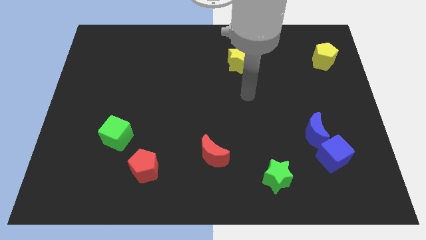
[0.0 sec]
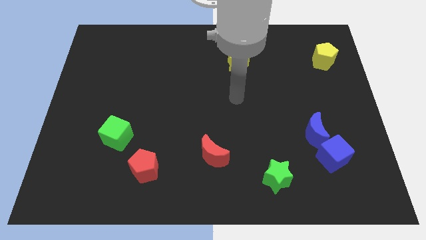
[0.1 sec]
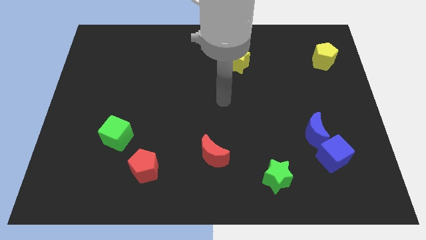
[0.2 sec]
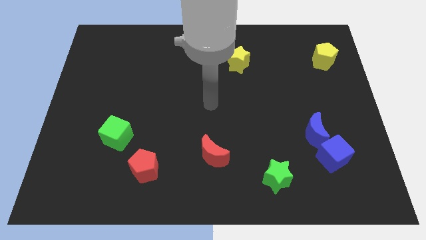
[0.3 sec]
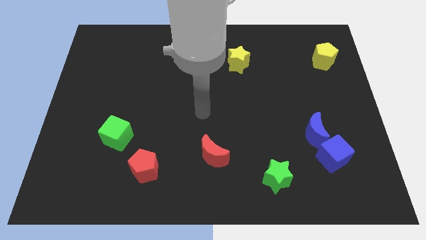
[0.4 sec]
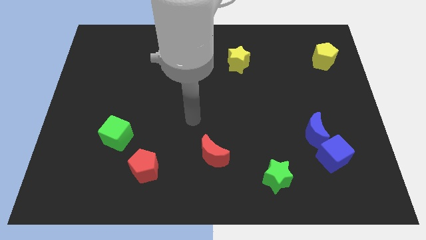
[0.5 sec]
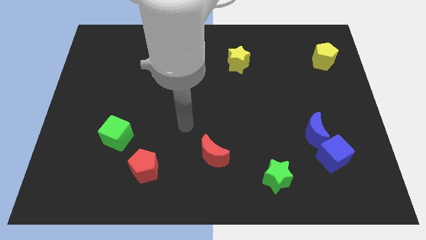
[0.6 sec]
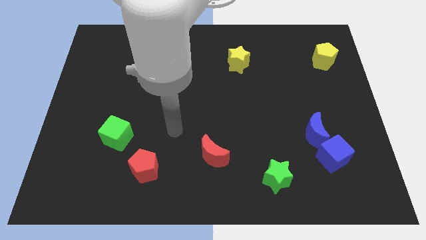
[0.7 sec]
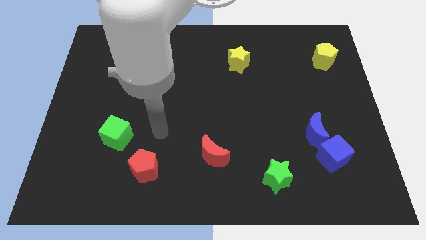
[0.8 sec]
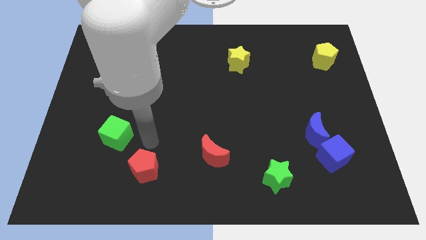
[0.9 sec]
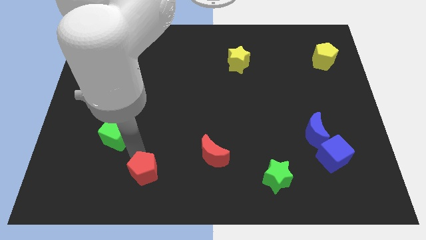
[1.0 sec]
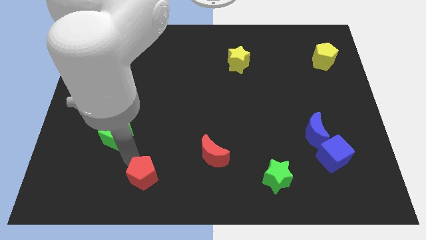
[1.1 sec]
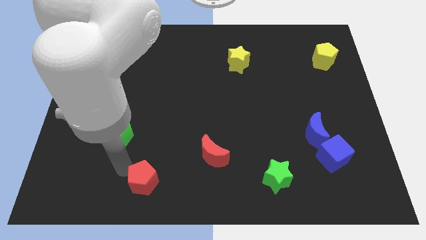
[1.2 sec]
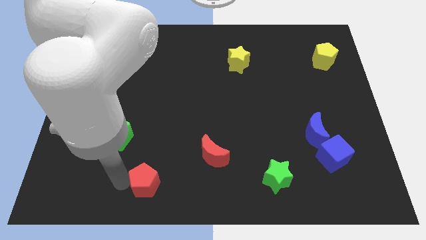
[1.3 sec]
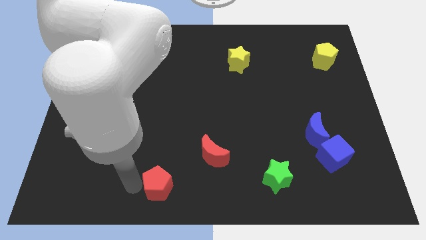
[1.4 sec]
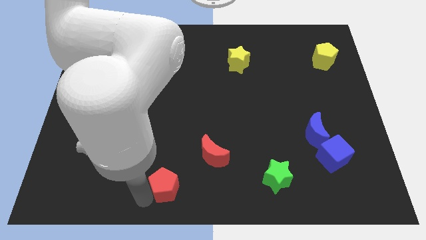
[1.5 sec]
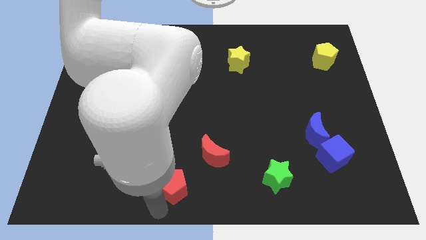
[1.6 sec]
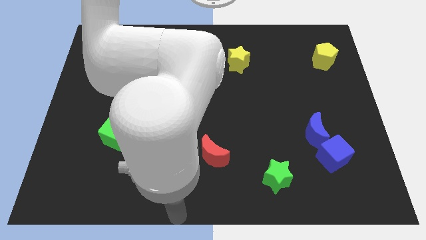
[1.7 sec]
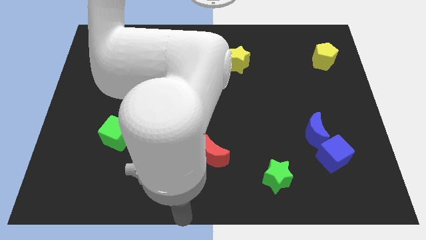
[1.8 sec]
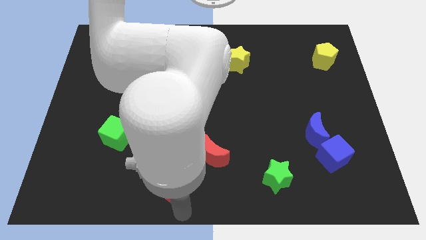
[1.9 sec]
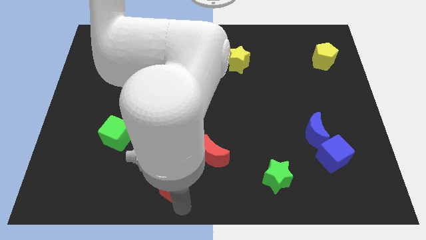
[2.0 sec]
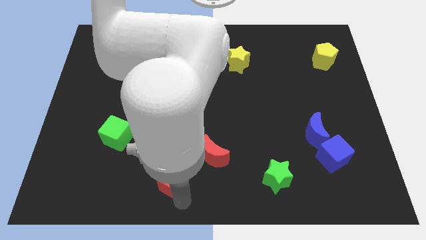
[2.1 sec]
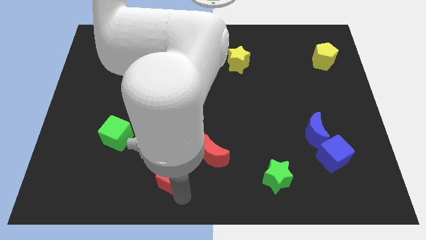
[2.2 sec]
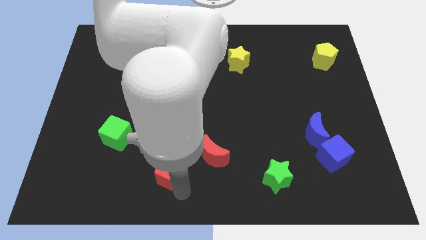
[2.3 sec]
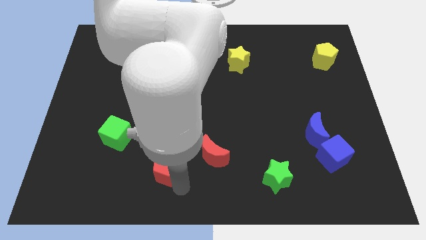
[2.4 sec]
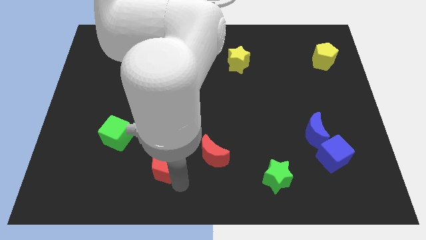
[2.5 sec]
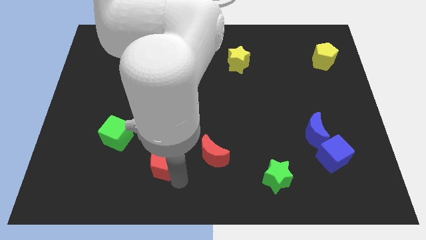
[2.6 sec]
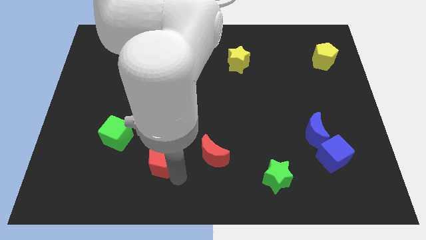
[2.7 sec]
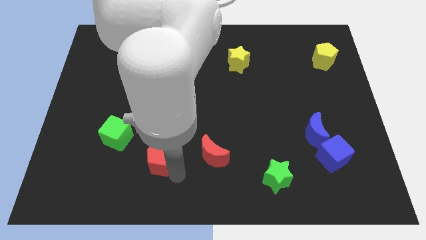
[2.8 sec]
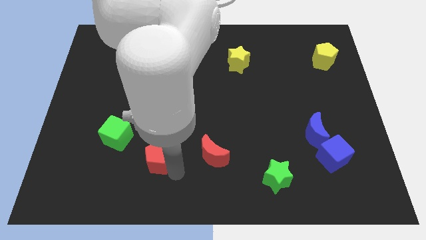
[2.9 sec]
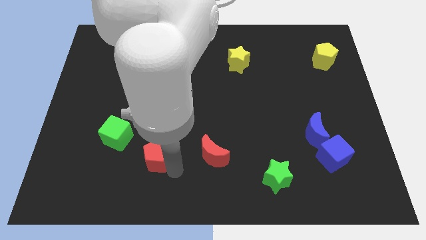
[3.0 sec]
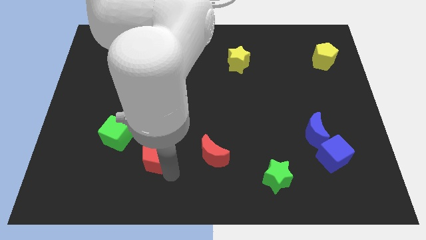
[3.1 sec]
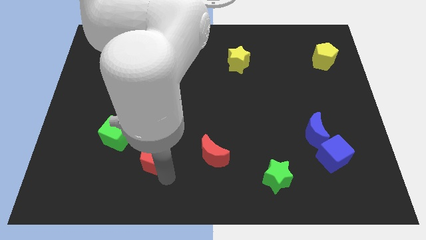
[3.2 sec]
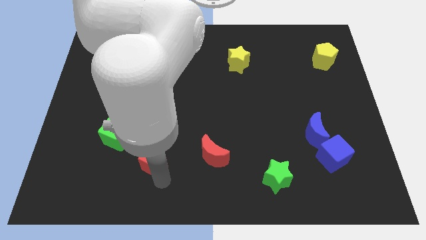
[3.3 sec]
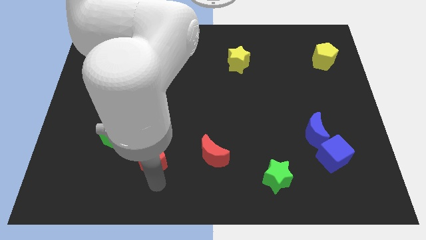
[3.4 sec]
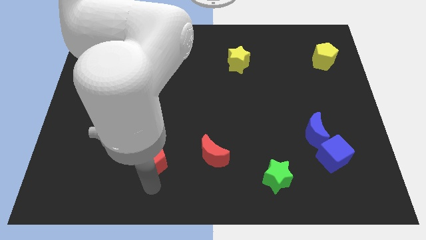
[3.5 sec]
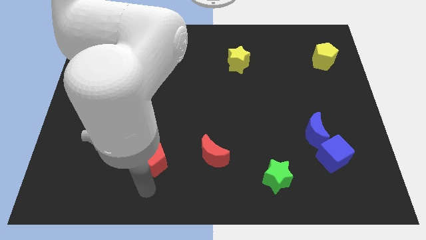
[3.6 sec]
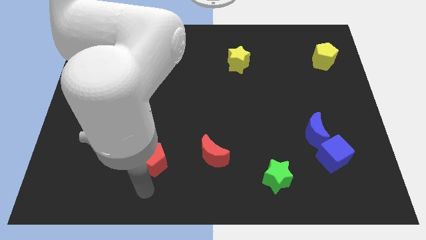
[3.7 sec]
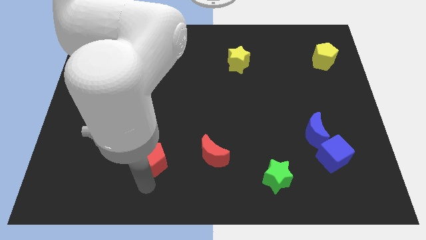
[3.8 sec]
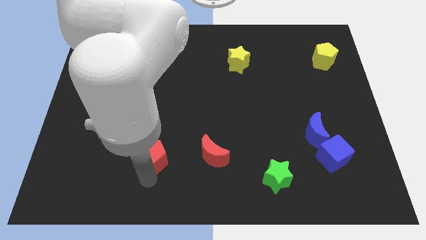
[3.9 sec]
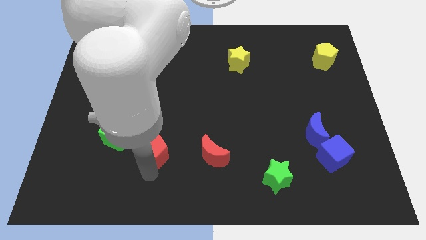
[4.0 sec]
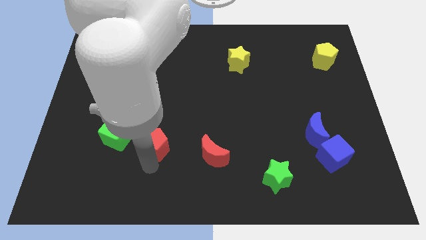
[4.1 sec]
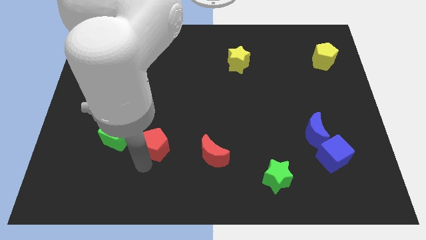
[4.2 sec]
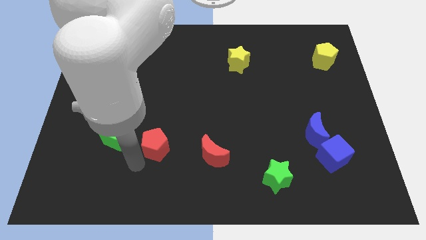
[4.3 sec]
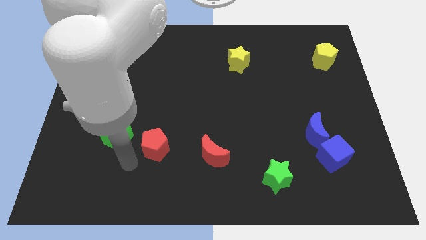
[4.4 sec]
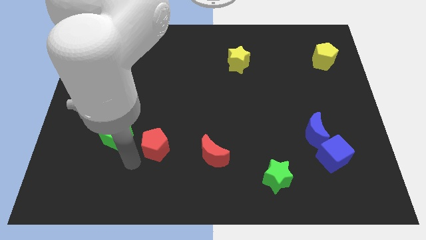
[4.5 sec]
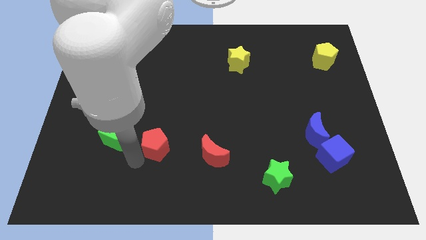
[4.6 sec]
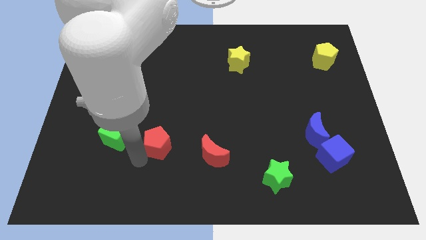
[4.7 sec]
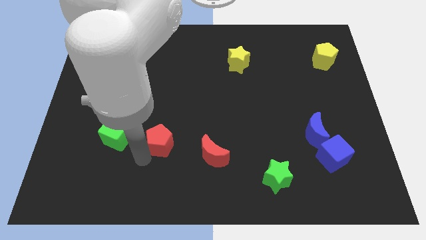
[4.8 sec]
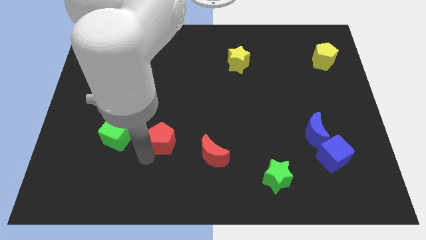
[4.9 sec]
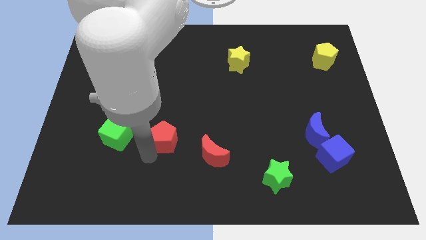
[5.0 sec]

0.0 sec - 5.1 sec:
push the red pentagon diagonally up and right a little bit

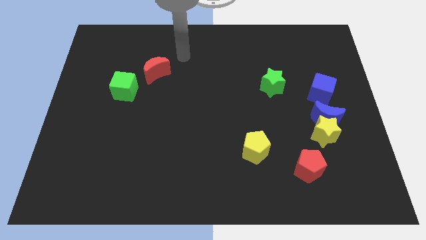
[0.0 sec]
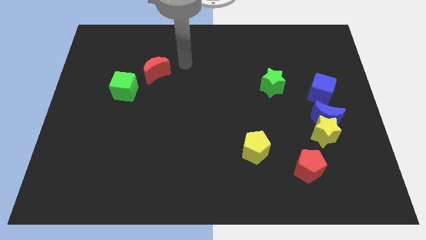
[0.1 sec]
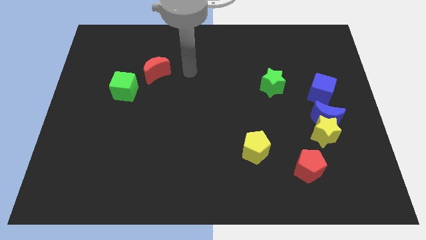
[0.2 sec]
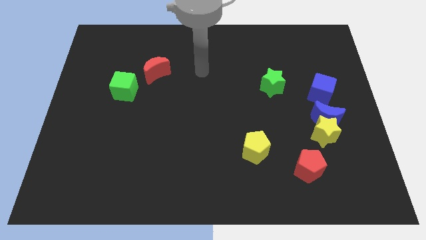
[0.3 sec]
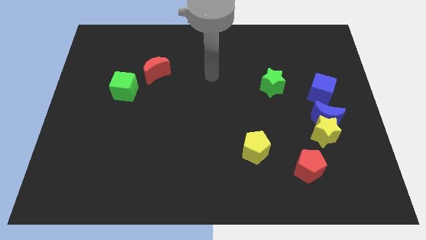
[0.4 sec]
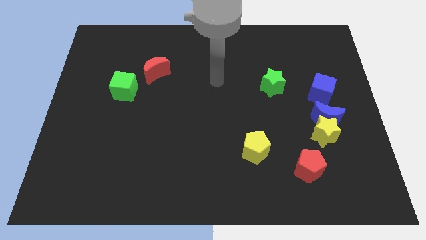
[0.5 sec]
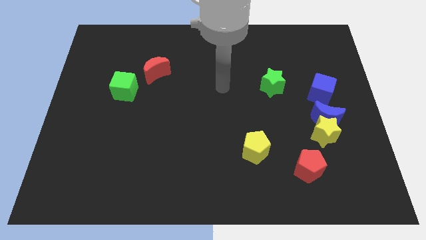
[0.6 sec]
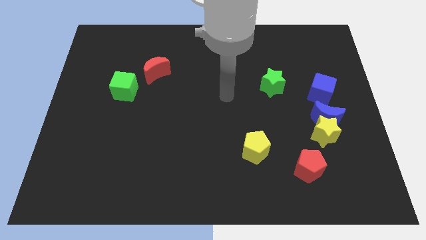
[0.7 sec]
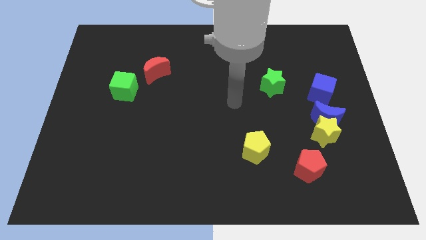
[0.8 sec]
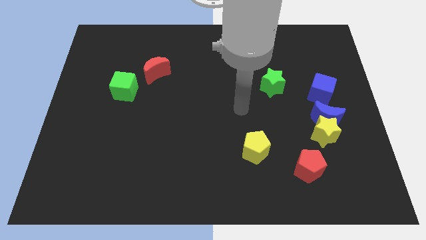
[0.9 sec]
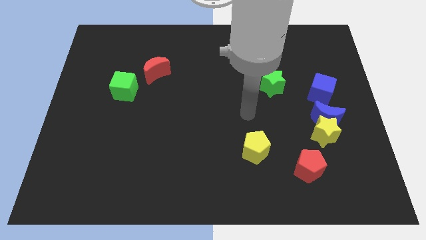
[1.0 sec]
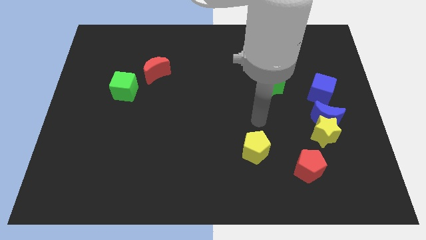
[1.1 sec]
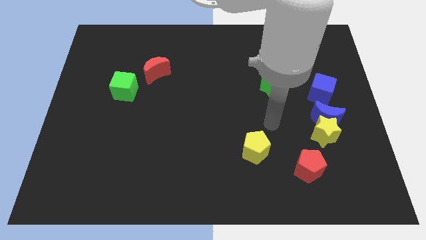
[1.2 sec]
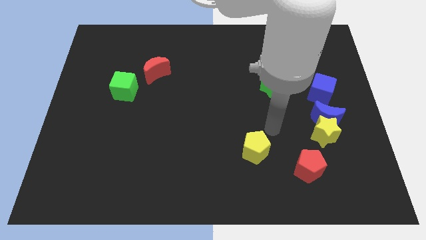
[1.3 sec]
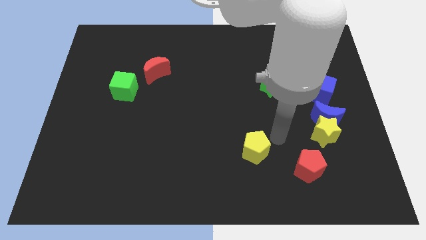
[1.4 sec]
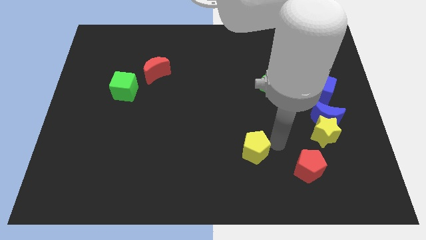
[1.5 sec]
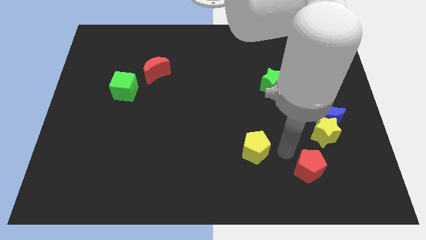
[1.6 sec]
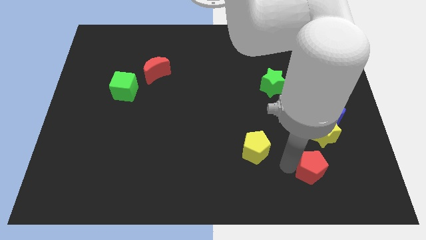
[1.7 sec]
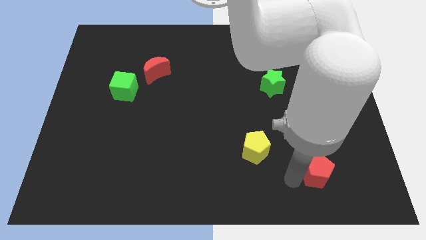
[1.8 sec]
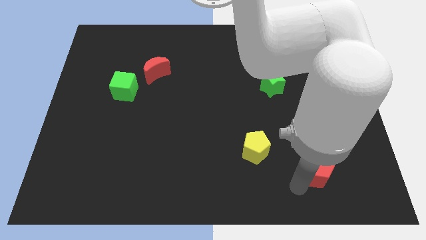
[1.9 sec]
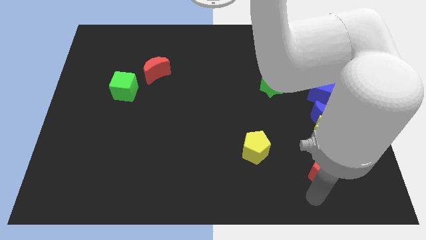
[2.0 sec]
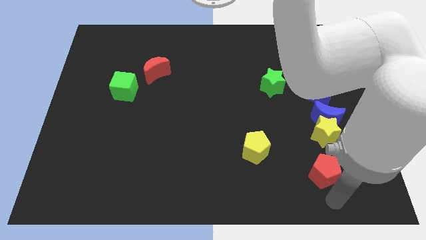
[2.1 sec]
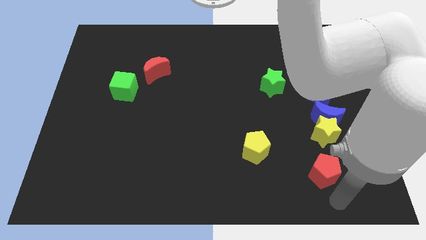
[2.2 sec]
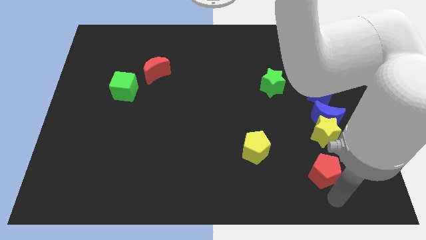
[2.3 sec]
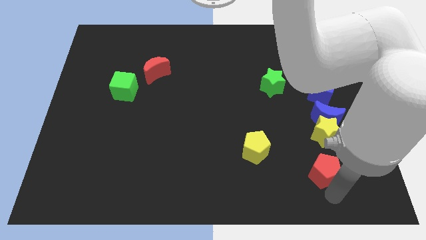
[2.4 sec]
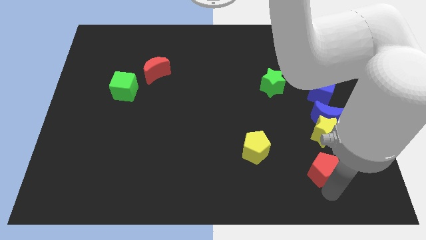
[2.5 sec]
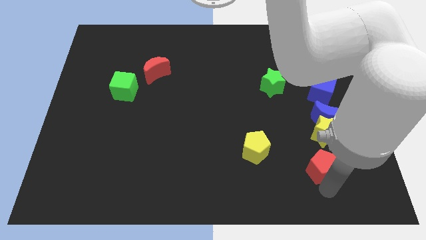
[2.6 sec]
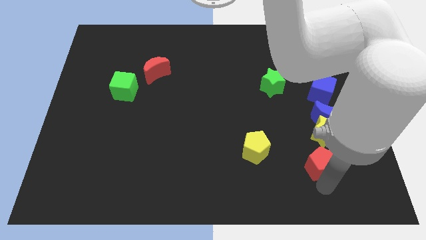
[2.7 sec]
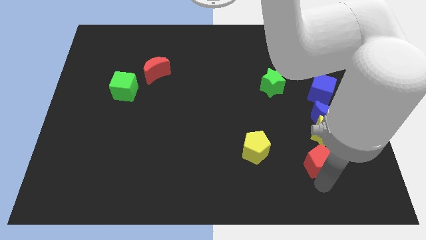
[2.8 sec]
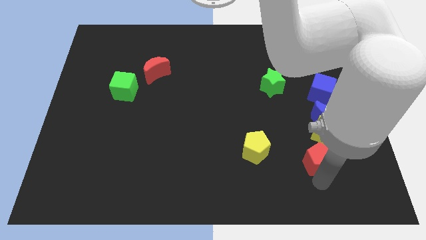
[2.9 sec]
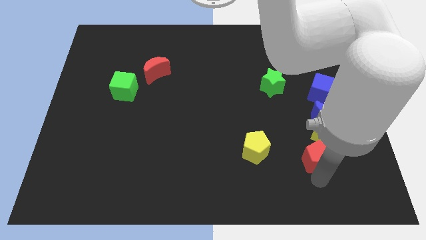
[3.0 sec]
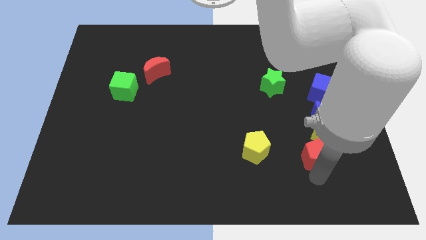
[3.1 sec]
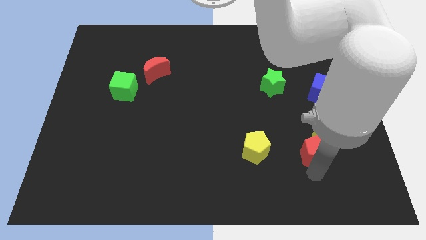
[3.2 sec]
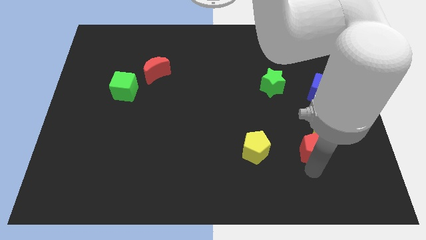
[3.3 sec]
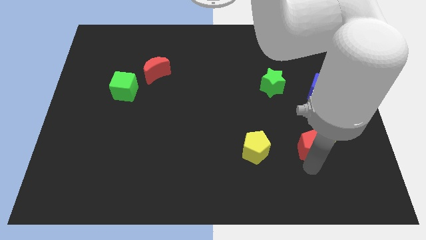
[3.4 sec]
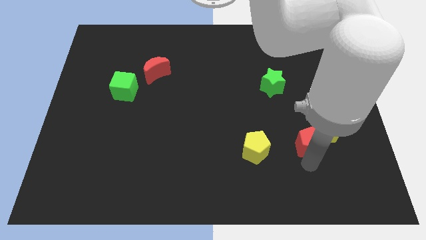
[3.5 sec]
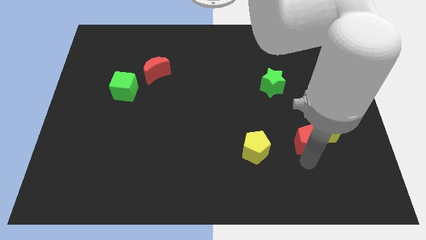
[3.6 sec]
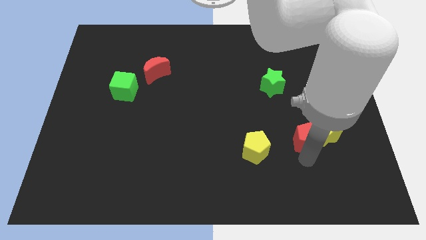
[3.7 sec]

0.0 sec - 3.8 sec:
push the red pentagon somewhat upwards
